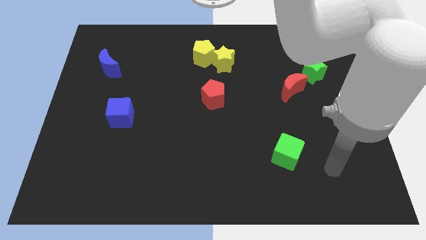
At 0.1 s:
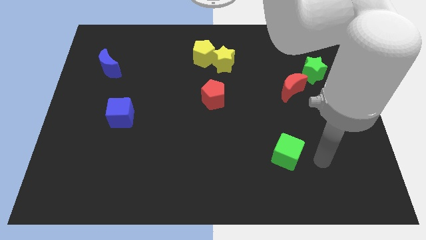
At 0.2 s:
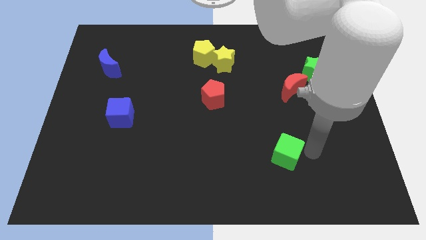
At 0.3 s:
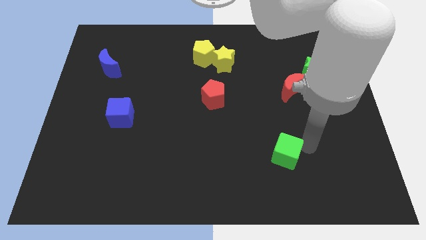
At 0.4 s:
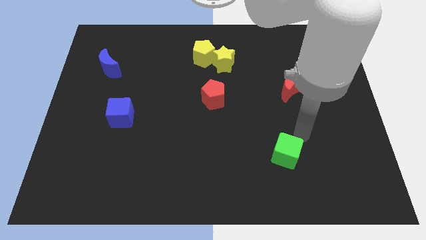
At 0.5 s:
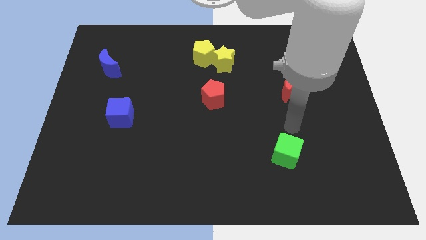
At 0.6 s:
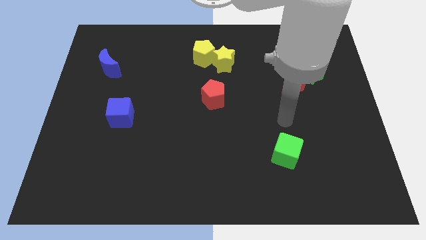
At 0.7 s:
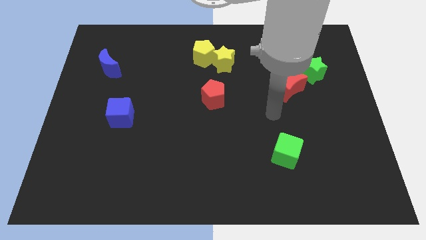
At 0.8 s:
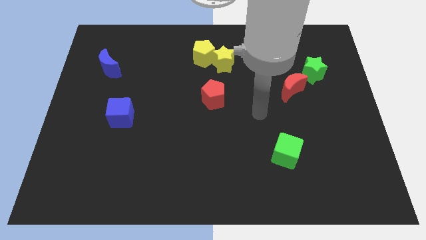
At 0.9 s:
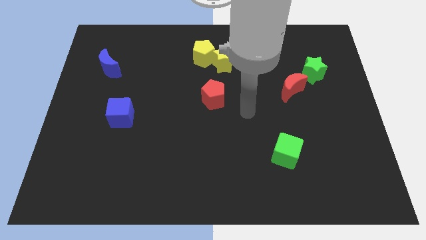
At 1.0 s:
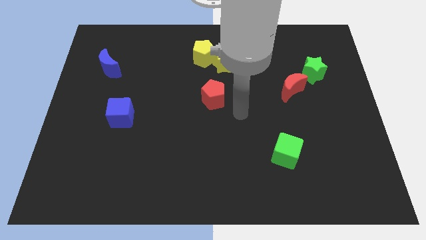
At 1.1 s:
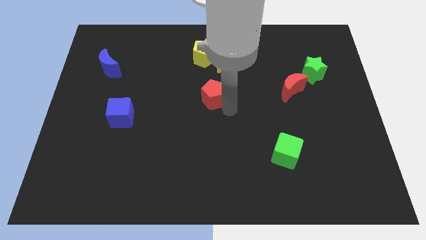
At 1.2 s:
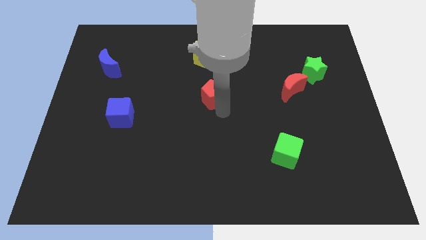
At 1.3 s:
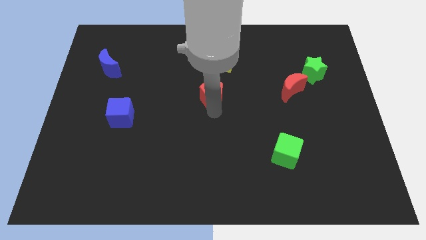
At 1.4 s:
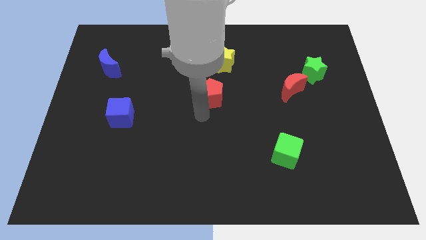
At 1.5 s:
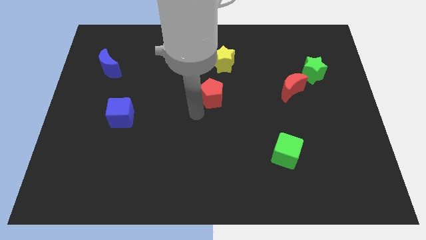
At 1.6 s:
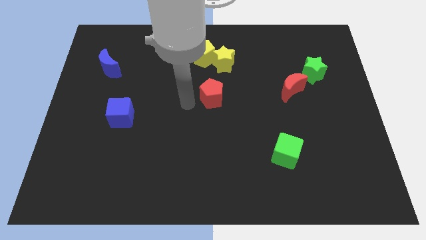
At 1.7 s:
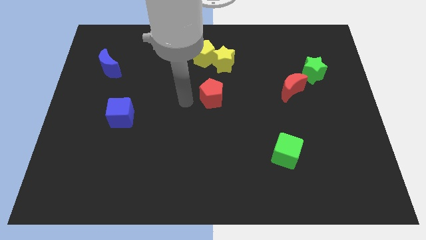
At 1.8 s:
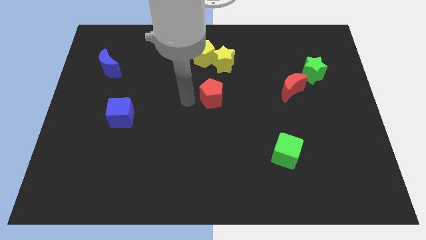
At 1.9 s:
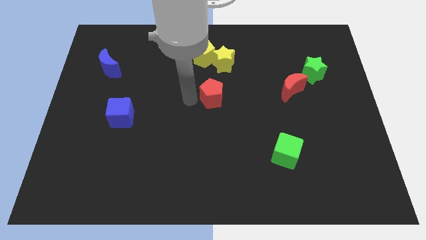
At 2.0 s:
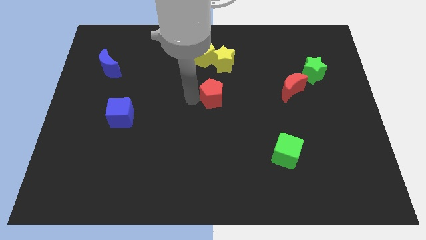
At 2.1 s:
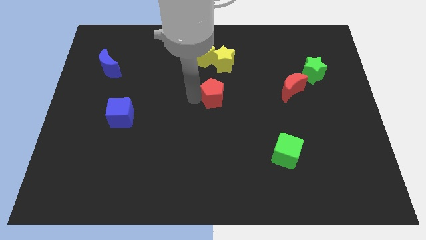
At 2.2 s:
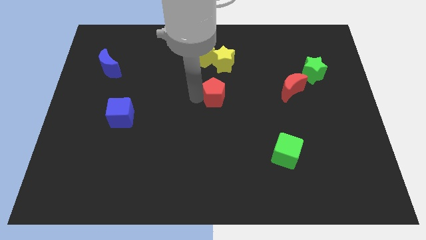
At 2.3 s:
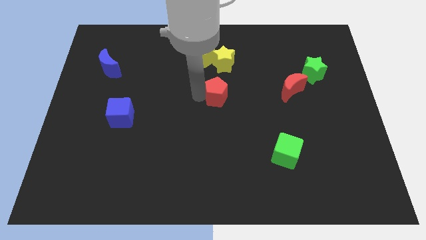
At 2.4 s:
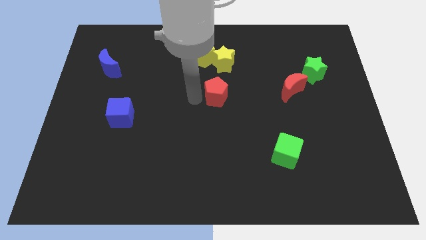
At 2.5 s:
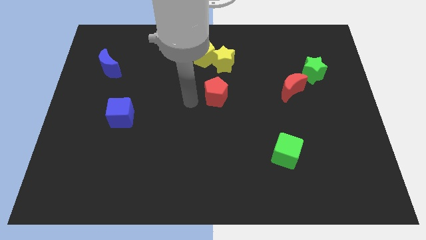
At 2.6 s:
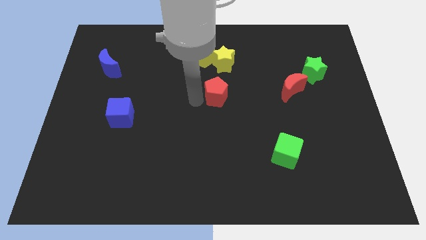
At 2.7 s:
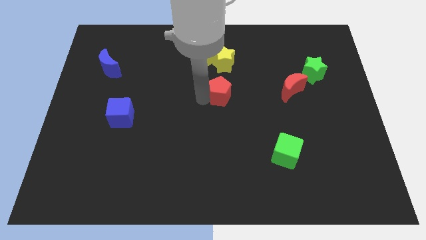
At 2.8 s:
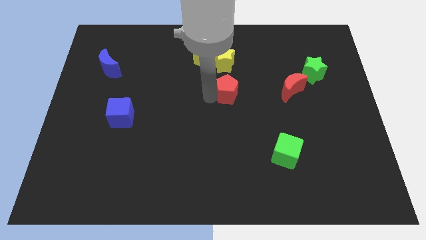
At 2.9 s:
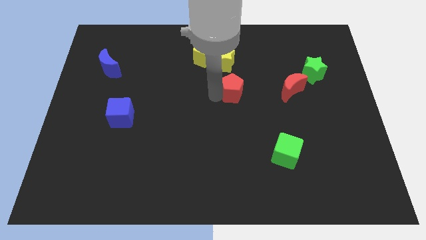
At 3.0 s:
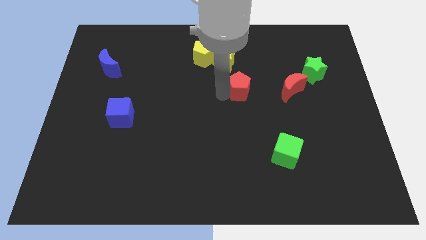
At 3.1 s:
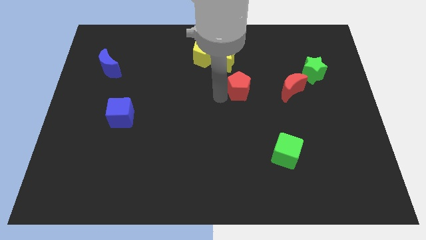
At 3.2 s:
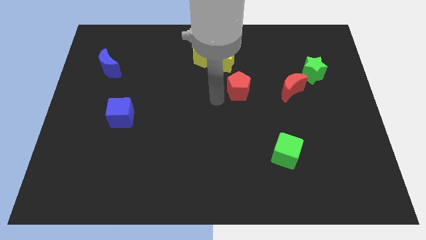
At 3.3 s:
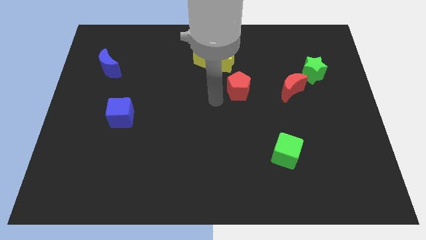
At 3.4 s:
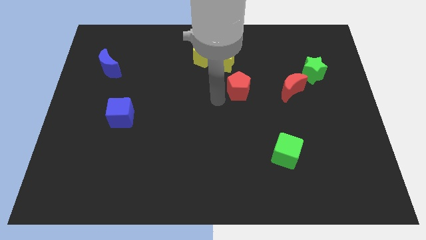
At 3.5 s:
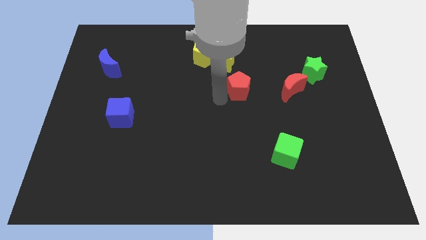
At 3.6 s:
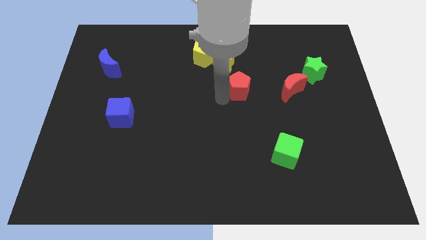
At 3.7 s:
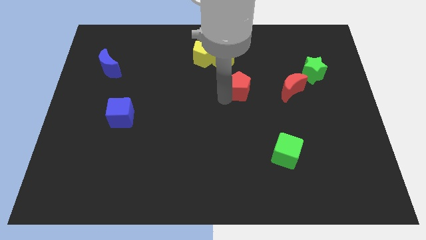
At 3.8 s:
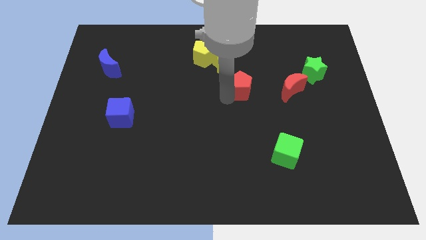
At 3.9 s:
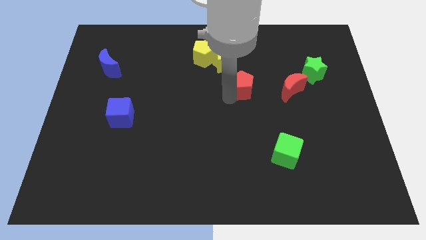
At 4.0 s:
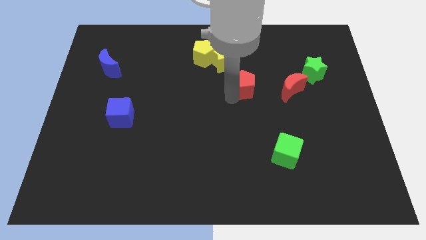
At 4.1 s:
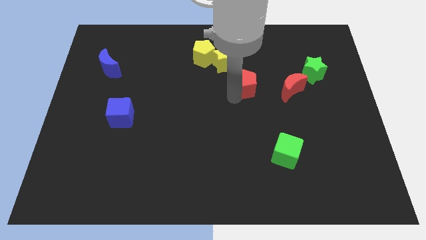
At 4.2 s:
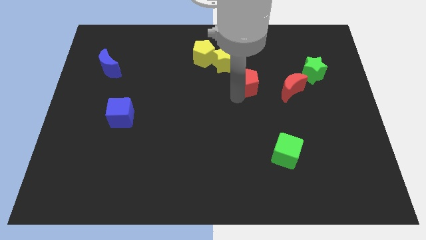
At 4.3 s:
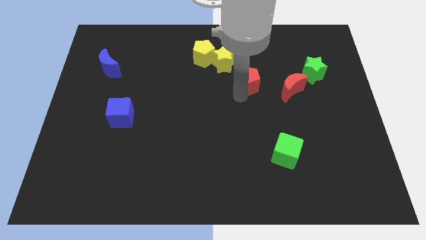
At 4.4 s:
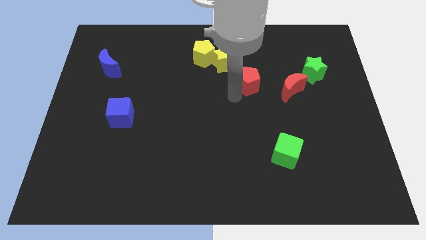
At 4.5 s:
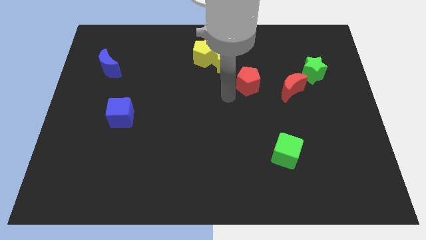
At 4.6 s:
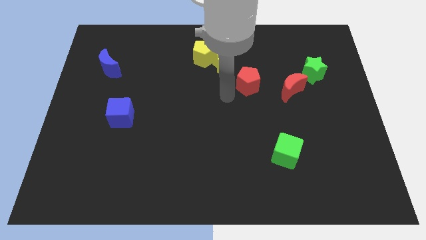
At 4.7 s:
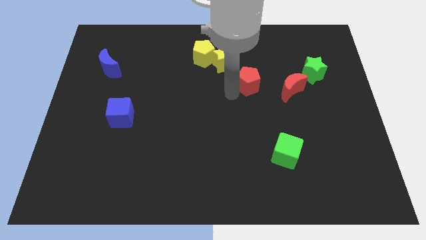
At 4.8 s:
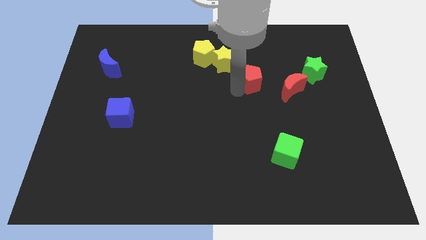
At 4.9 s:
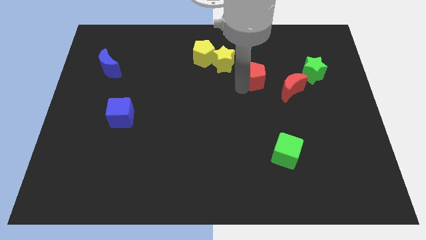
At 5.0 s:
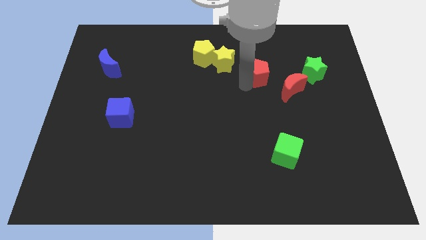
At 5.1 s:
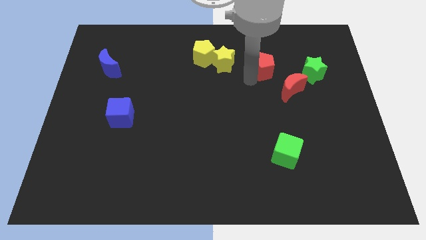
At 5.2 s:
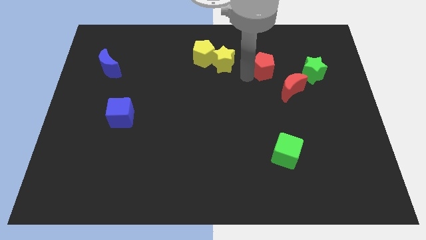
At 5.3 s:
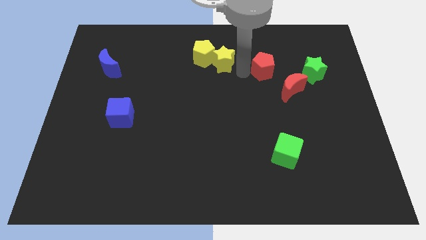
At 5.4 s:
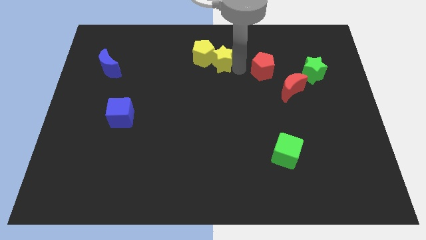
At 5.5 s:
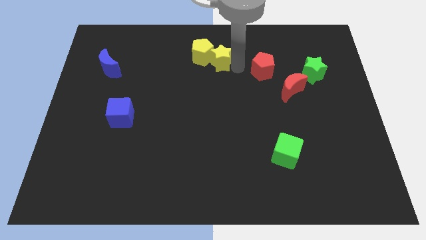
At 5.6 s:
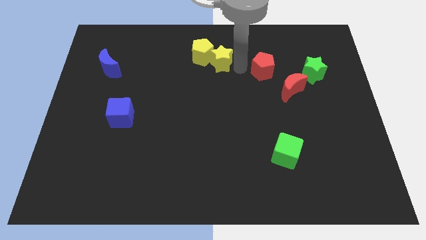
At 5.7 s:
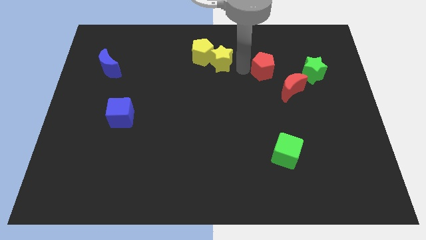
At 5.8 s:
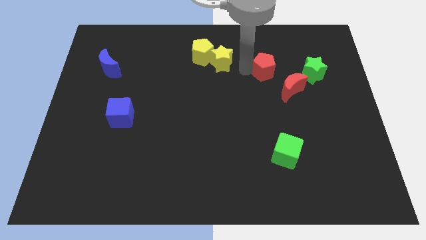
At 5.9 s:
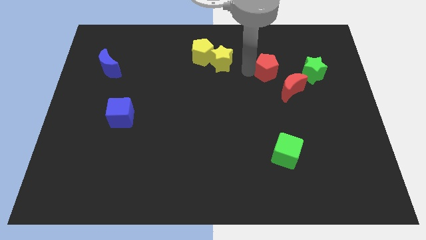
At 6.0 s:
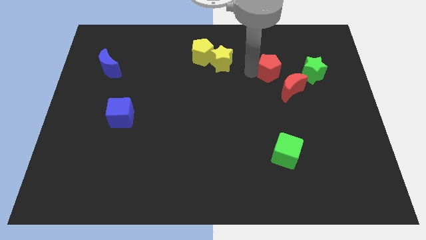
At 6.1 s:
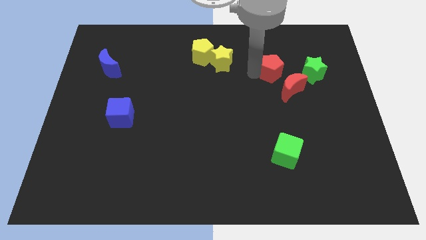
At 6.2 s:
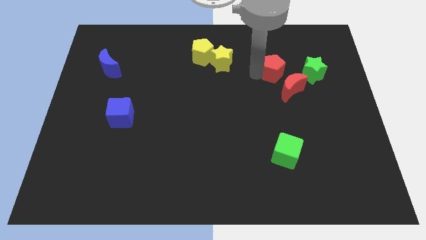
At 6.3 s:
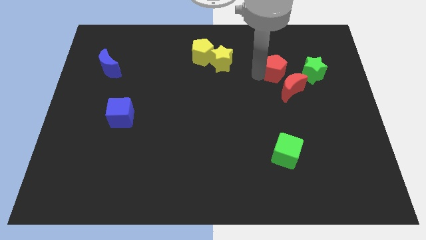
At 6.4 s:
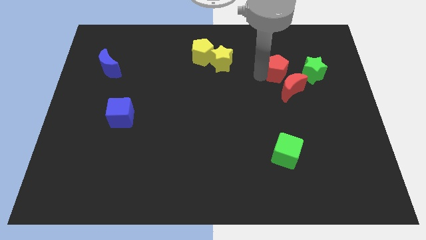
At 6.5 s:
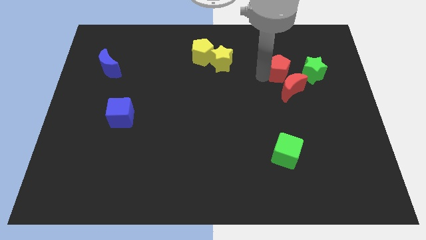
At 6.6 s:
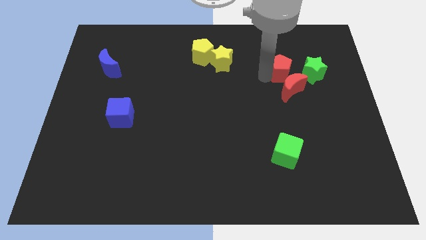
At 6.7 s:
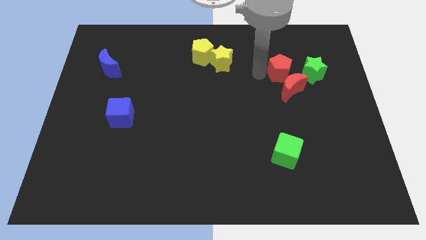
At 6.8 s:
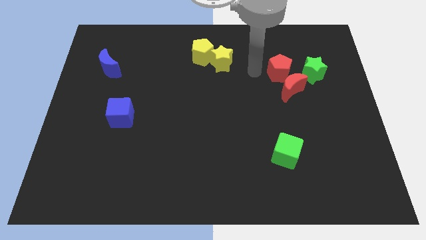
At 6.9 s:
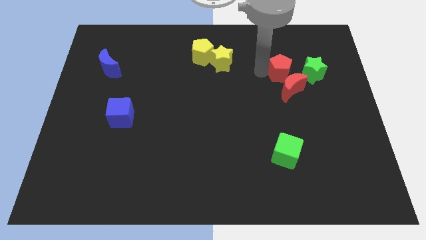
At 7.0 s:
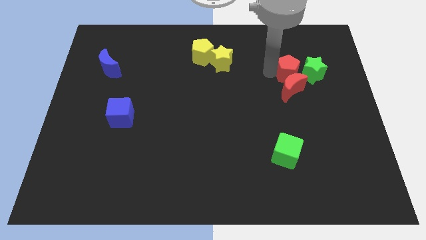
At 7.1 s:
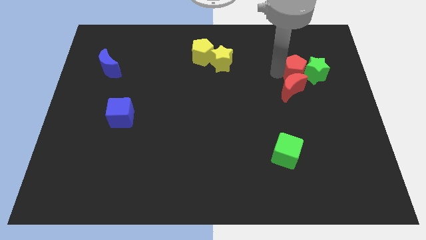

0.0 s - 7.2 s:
push the red pentagon towards the green star
